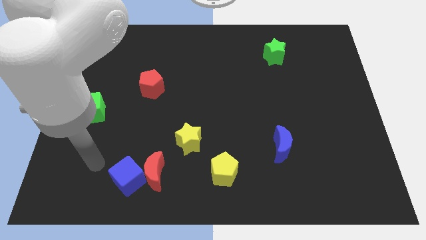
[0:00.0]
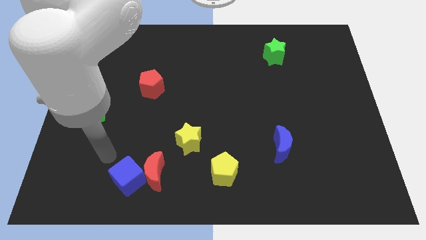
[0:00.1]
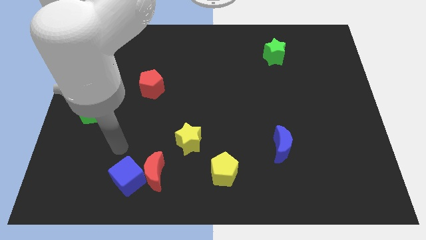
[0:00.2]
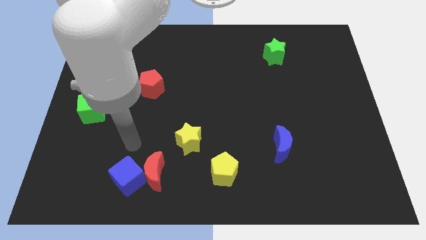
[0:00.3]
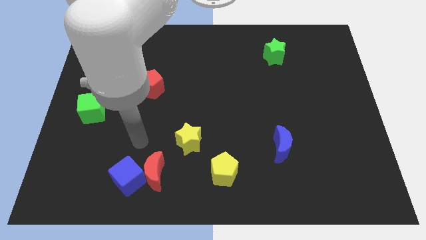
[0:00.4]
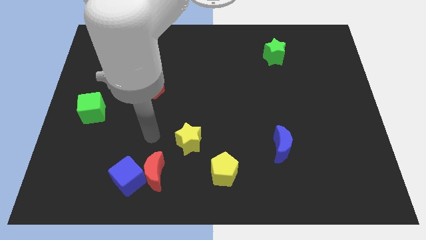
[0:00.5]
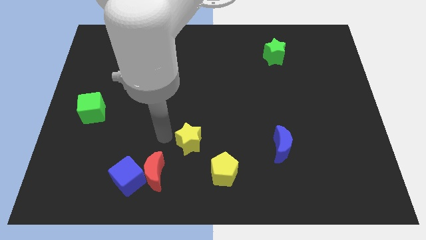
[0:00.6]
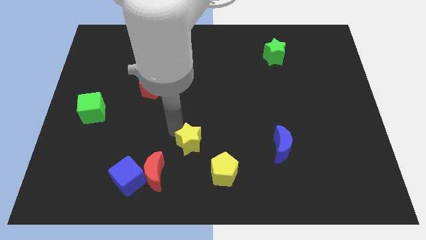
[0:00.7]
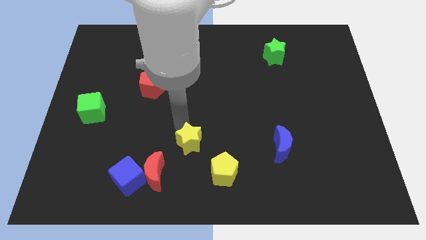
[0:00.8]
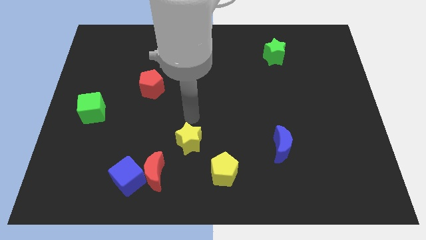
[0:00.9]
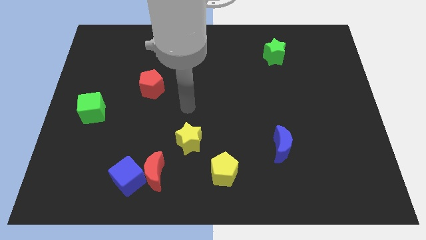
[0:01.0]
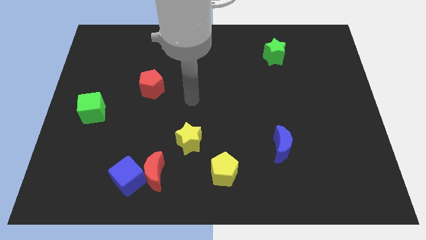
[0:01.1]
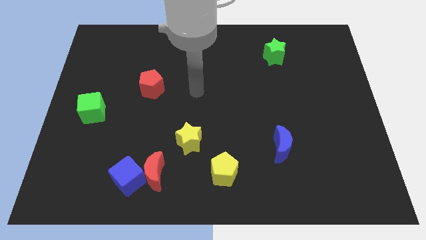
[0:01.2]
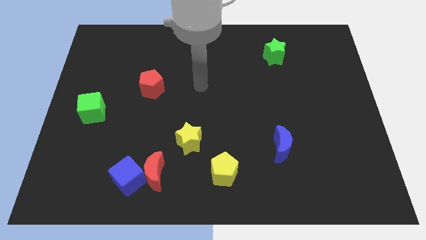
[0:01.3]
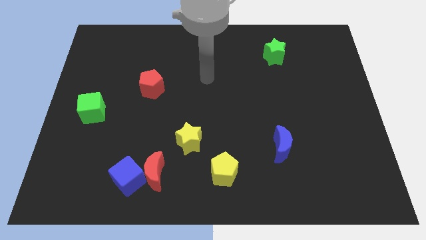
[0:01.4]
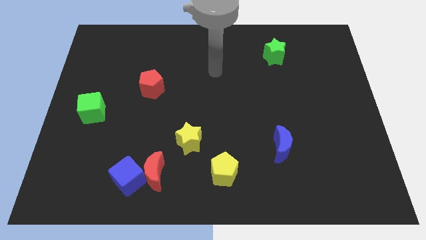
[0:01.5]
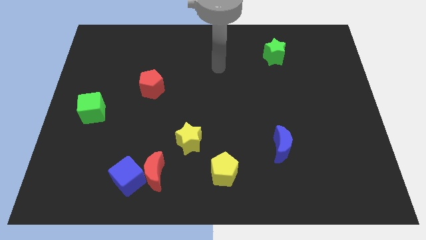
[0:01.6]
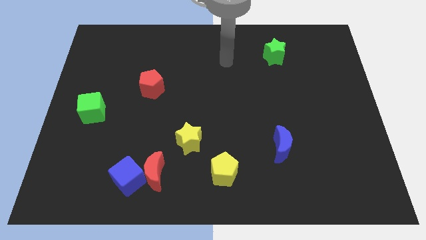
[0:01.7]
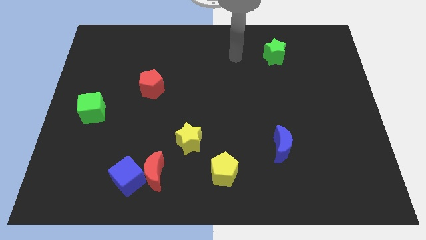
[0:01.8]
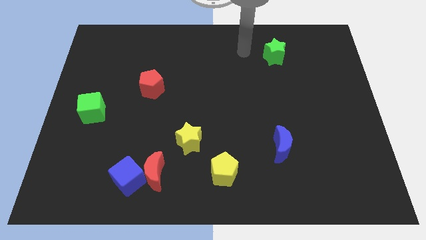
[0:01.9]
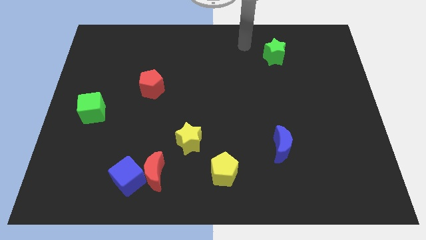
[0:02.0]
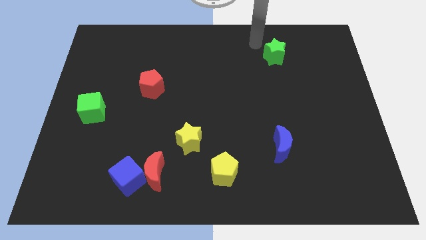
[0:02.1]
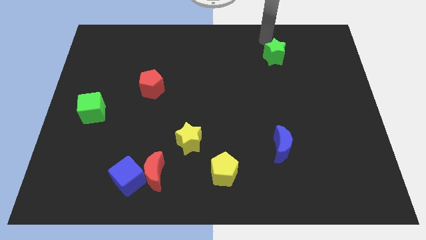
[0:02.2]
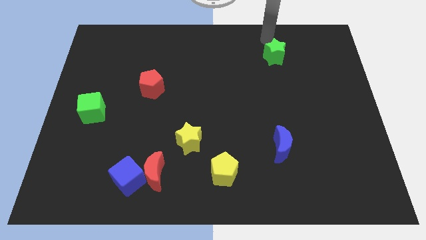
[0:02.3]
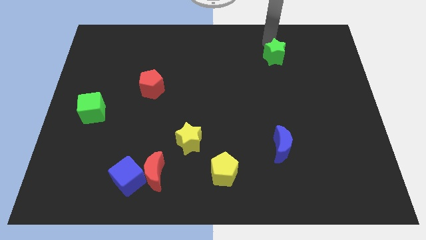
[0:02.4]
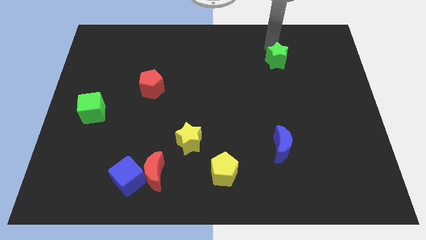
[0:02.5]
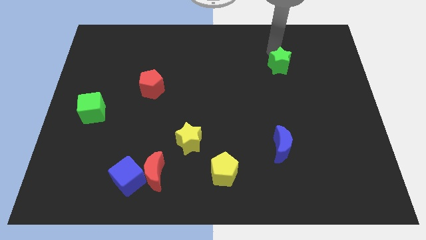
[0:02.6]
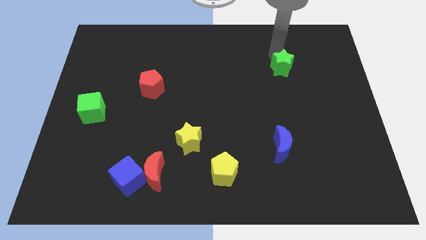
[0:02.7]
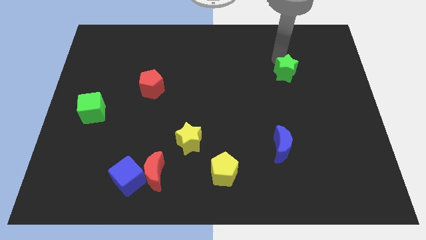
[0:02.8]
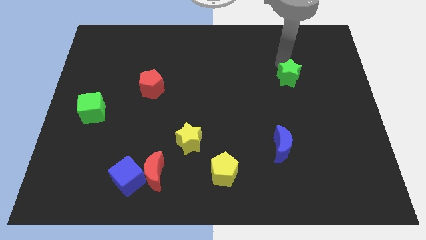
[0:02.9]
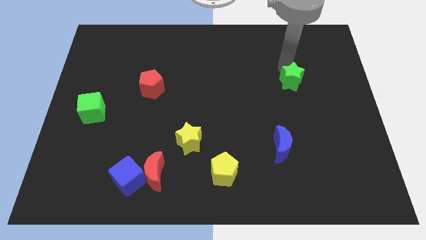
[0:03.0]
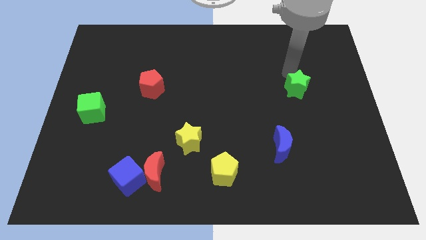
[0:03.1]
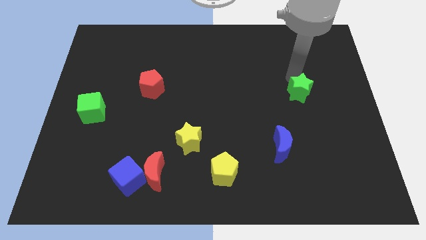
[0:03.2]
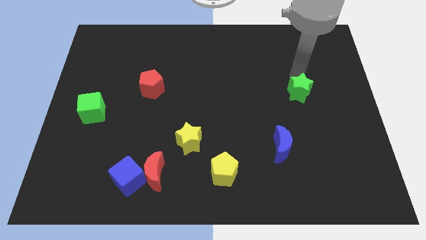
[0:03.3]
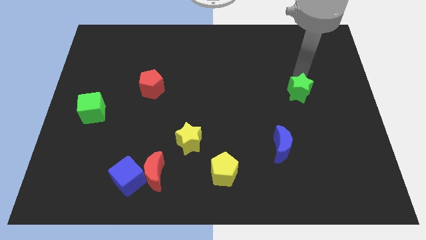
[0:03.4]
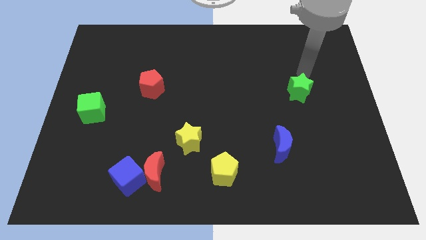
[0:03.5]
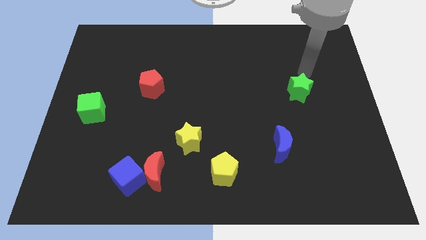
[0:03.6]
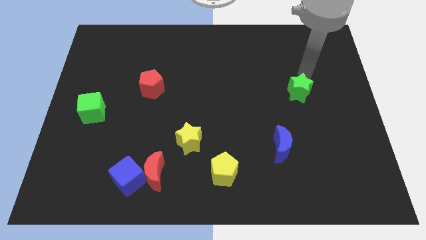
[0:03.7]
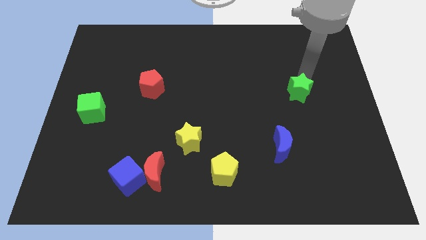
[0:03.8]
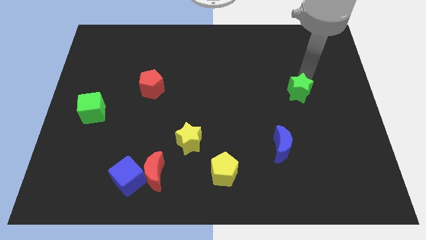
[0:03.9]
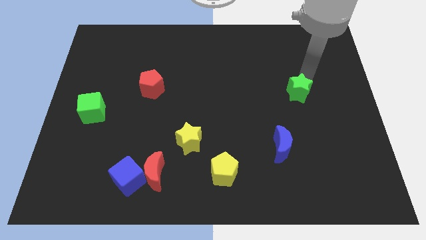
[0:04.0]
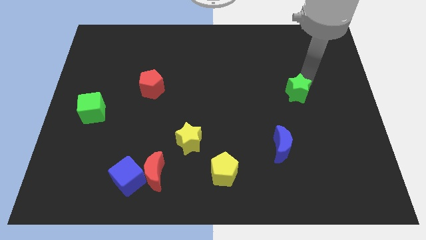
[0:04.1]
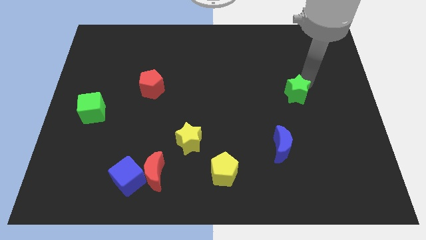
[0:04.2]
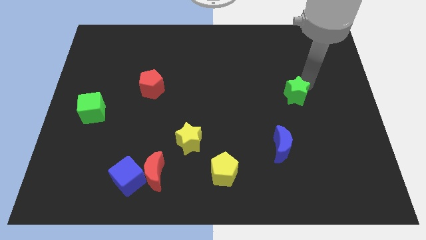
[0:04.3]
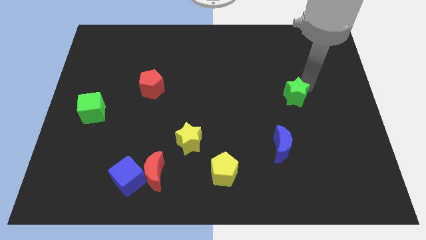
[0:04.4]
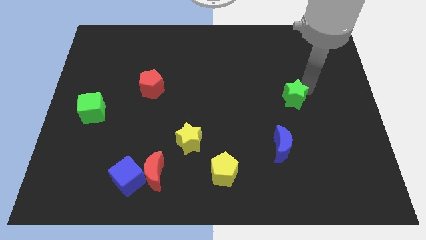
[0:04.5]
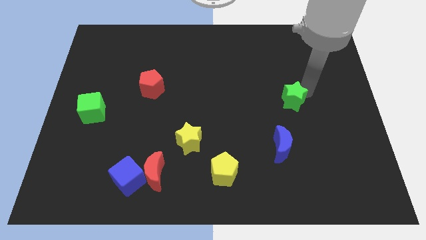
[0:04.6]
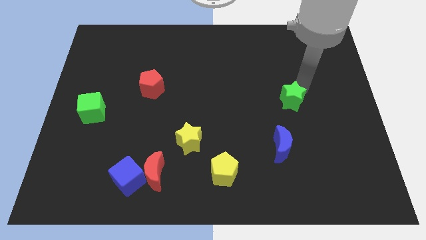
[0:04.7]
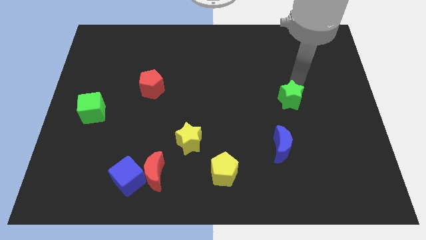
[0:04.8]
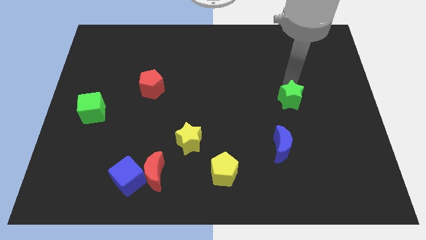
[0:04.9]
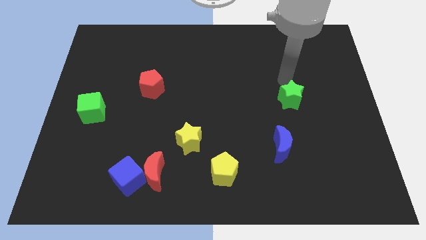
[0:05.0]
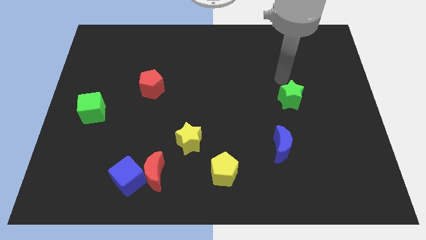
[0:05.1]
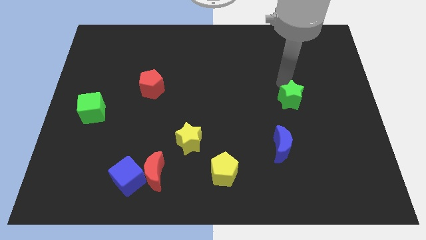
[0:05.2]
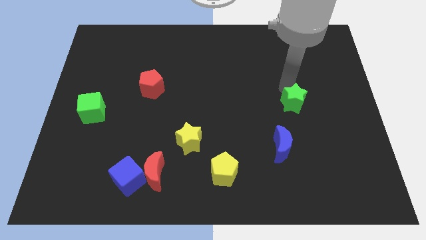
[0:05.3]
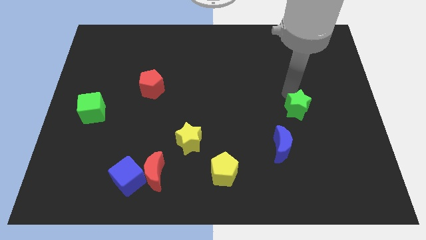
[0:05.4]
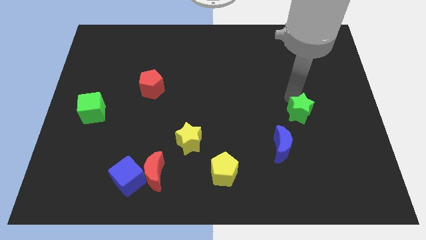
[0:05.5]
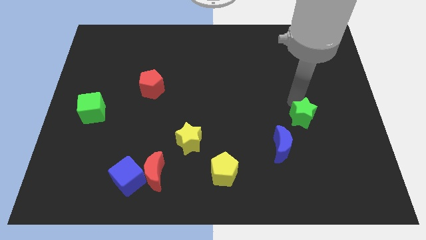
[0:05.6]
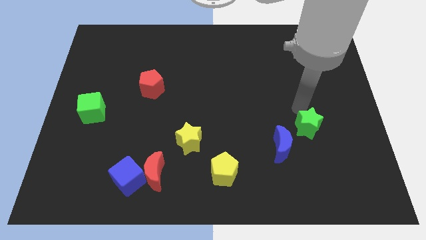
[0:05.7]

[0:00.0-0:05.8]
slide the green star down

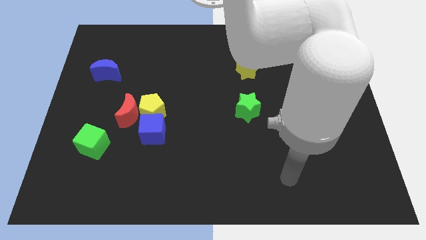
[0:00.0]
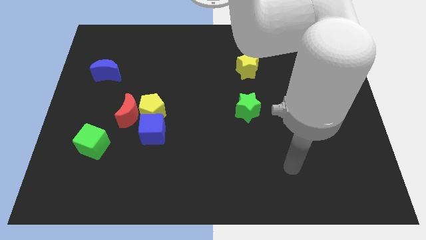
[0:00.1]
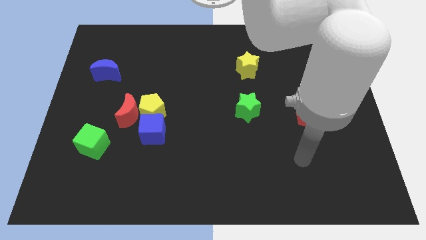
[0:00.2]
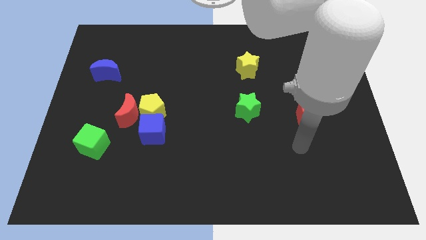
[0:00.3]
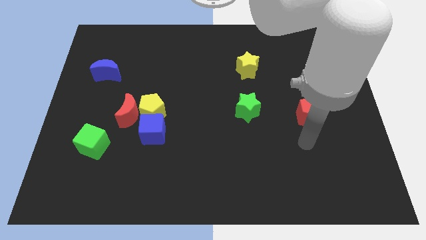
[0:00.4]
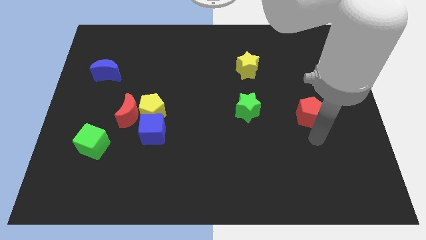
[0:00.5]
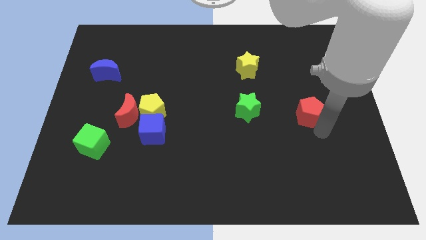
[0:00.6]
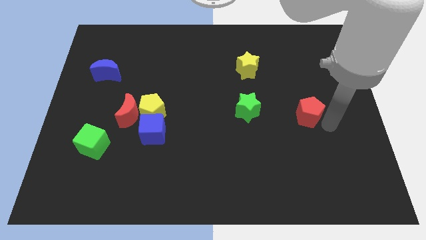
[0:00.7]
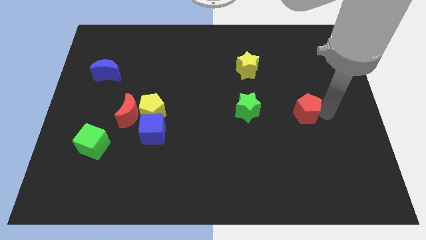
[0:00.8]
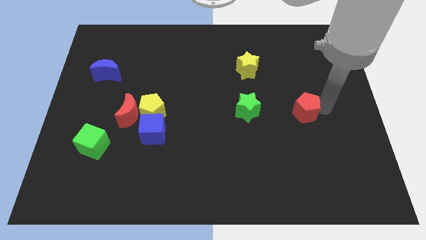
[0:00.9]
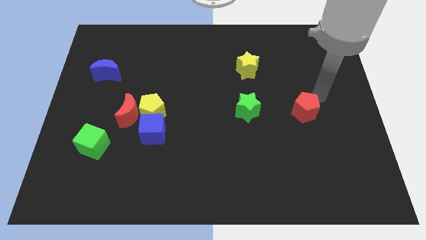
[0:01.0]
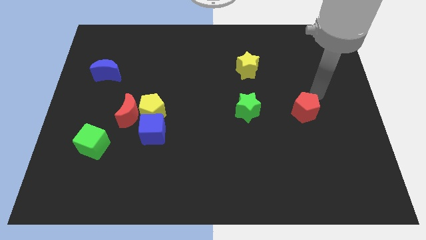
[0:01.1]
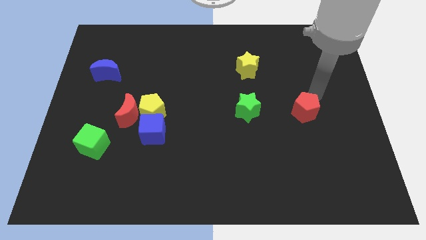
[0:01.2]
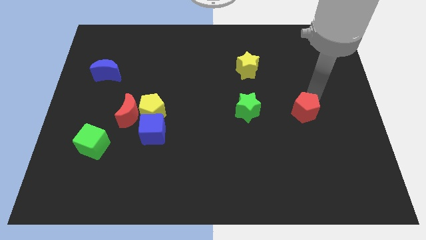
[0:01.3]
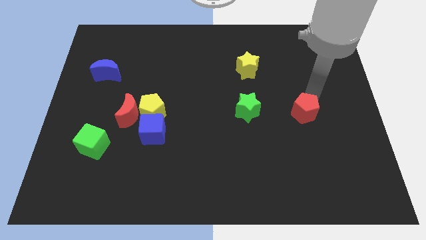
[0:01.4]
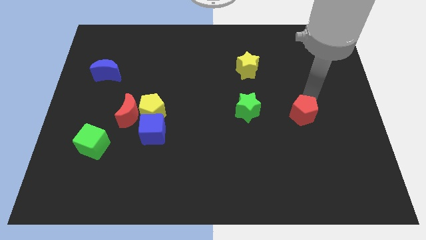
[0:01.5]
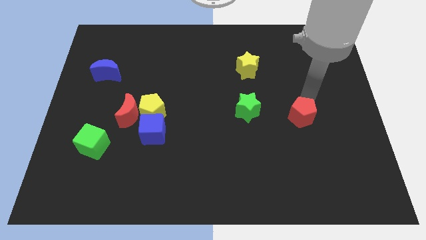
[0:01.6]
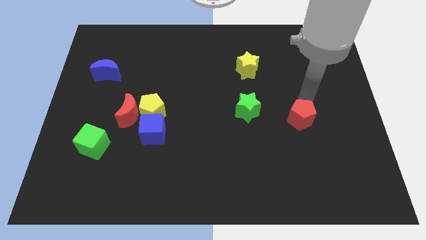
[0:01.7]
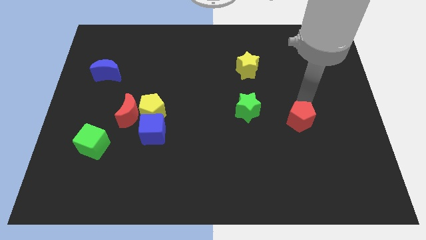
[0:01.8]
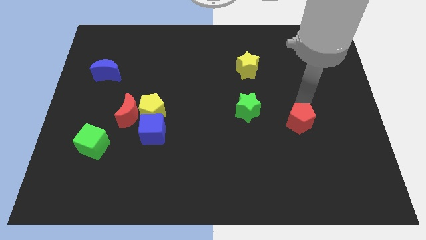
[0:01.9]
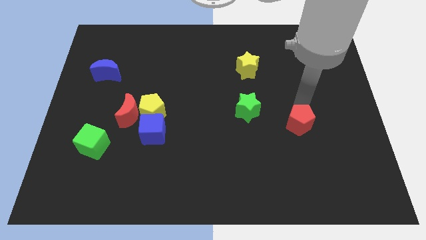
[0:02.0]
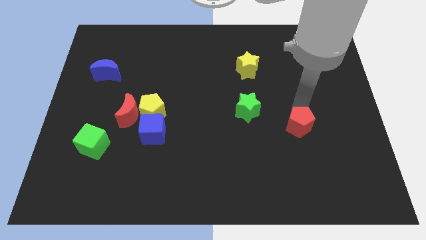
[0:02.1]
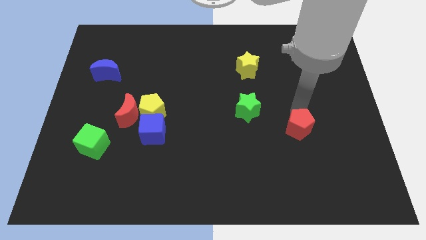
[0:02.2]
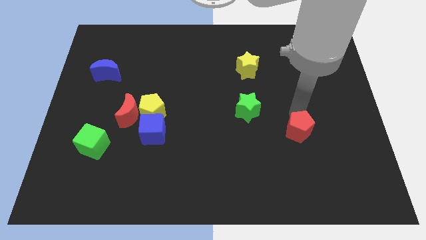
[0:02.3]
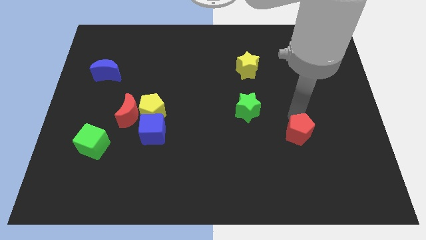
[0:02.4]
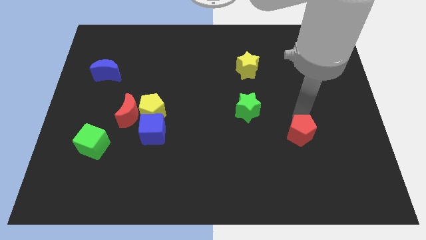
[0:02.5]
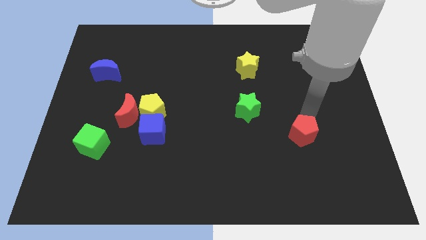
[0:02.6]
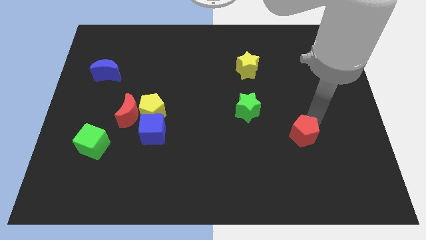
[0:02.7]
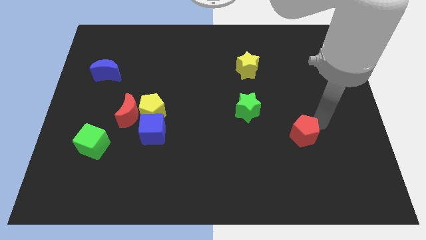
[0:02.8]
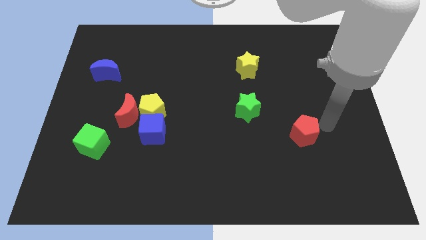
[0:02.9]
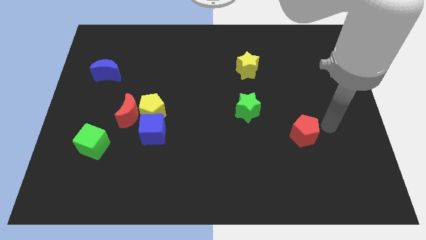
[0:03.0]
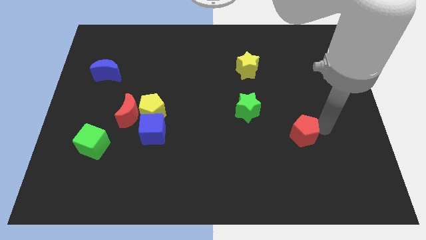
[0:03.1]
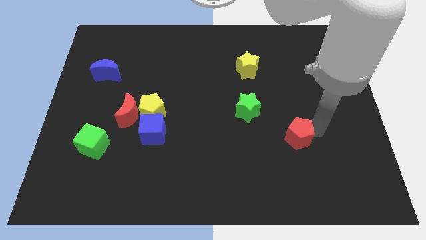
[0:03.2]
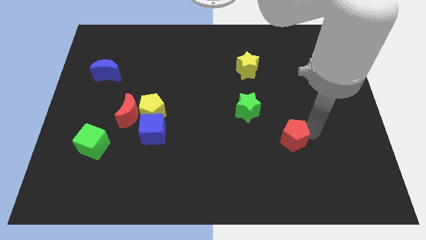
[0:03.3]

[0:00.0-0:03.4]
move the red pentagon a bit down and left diagonally
